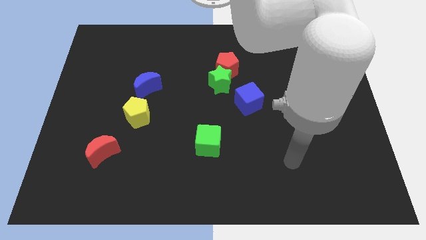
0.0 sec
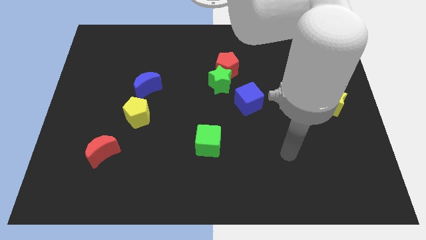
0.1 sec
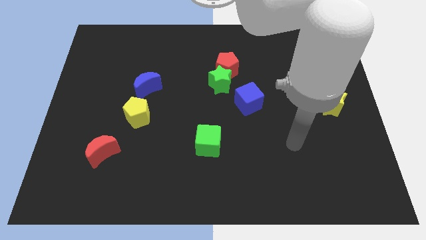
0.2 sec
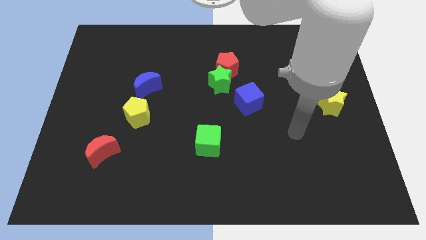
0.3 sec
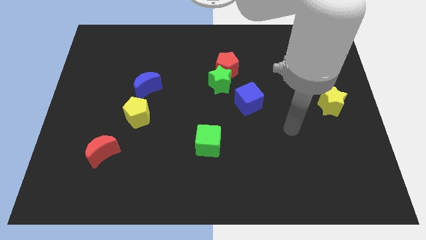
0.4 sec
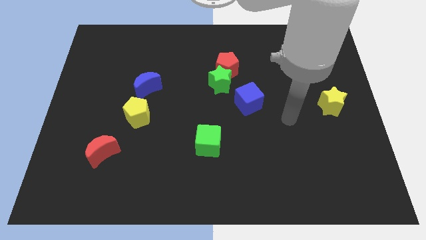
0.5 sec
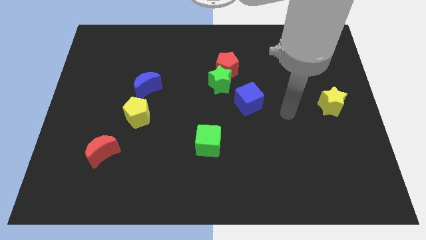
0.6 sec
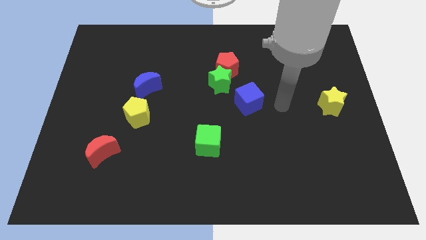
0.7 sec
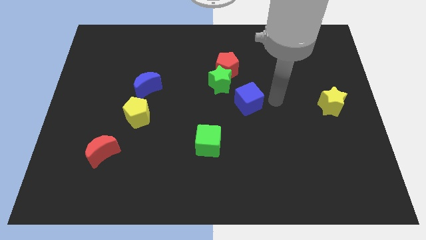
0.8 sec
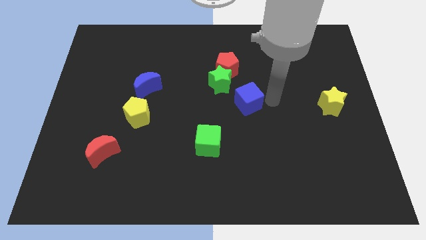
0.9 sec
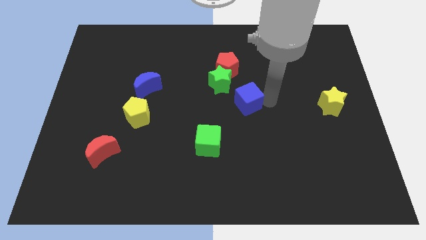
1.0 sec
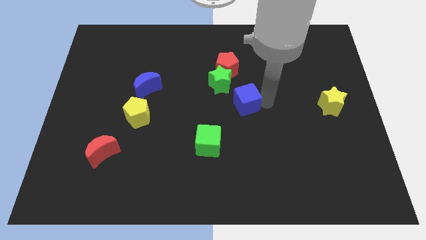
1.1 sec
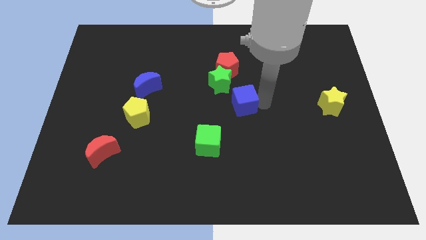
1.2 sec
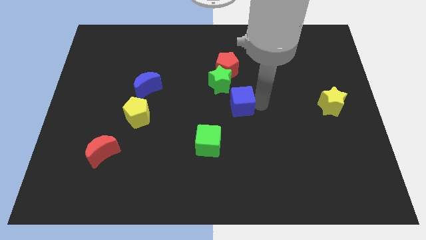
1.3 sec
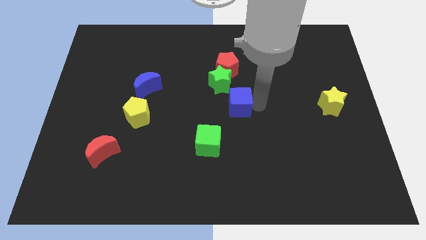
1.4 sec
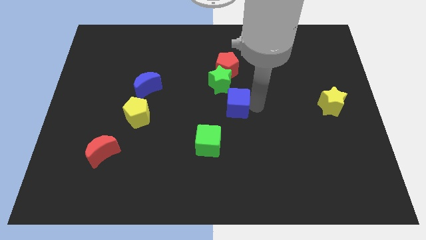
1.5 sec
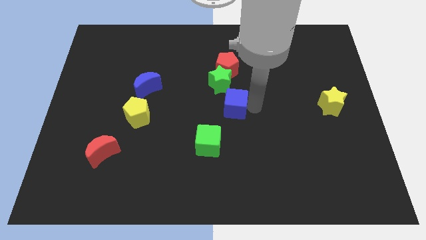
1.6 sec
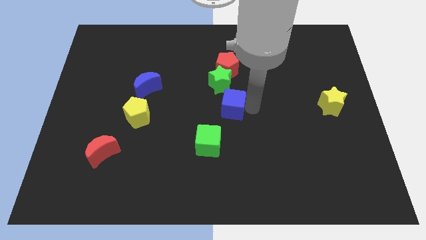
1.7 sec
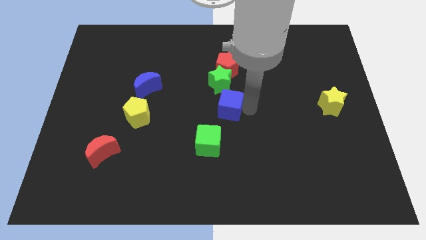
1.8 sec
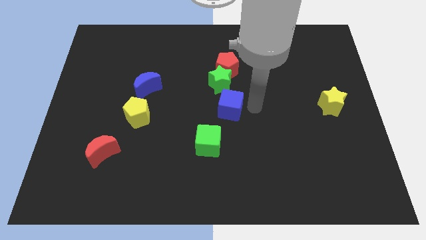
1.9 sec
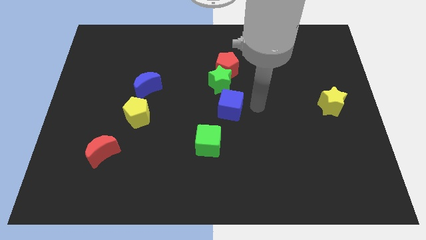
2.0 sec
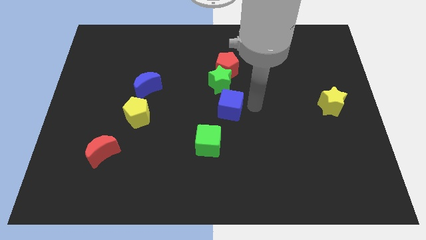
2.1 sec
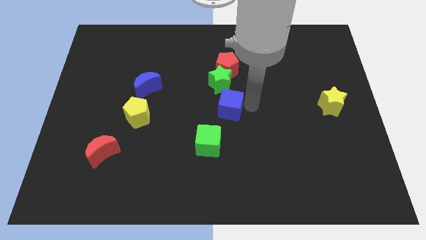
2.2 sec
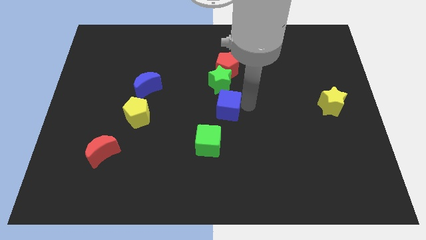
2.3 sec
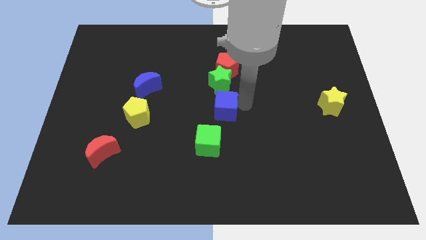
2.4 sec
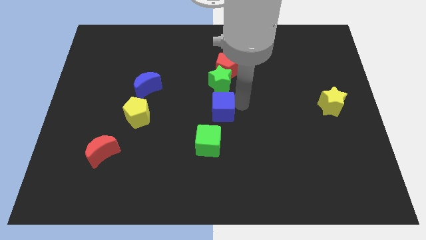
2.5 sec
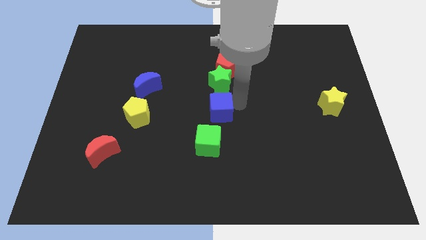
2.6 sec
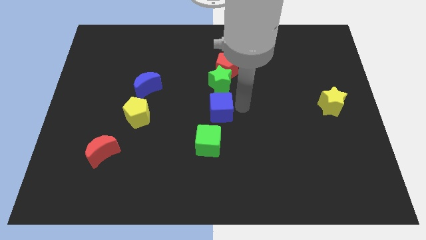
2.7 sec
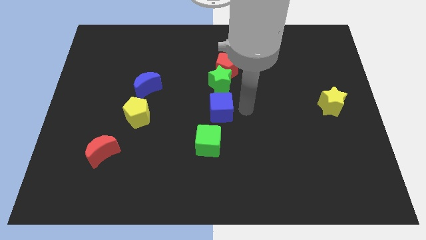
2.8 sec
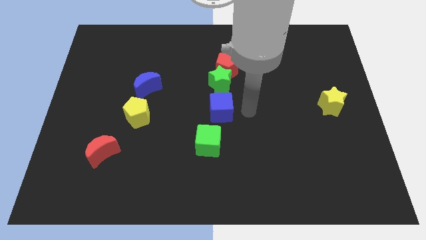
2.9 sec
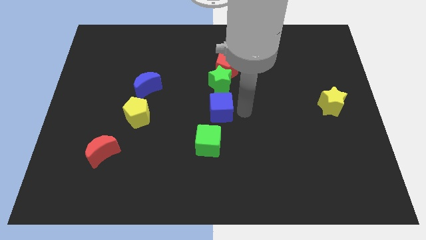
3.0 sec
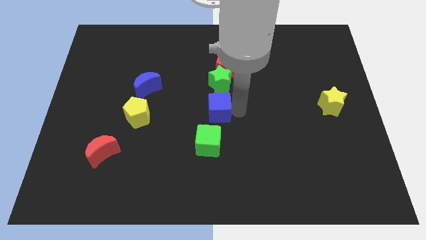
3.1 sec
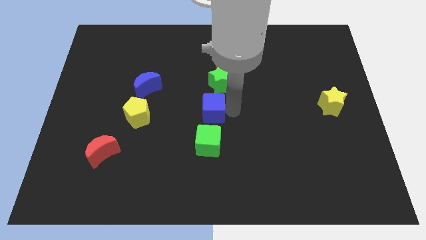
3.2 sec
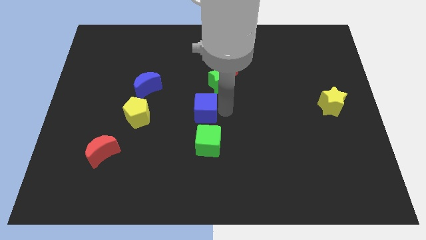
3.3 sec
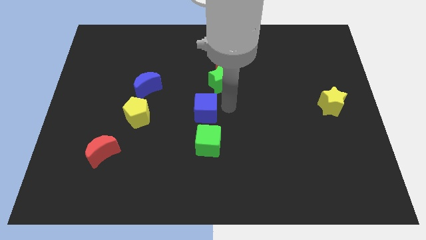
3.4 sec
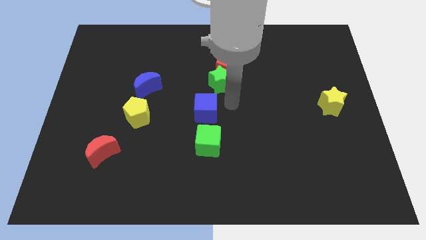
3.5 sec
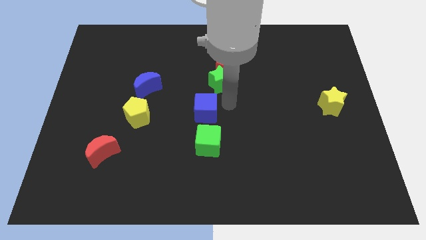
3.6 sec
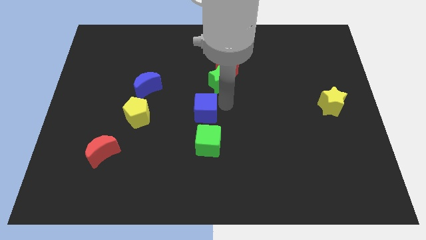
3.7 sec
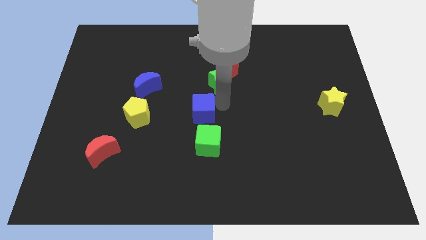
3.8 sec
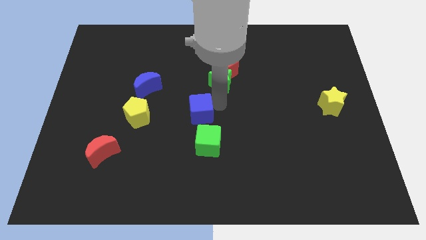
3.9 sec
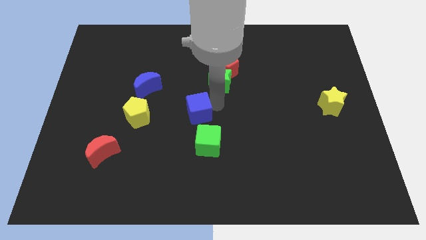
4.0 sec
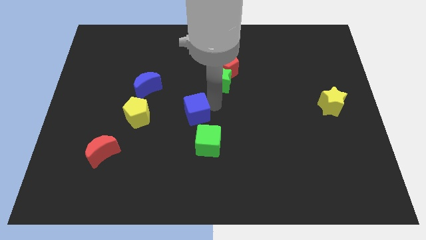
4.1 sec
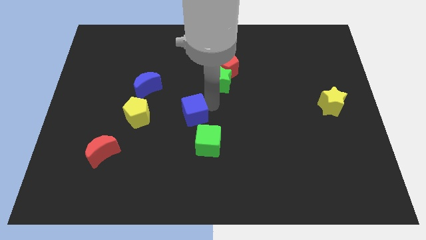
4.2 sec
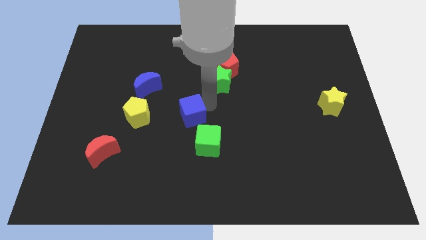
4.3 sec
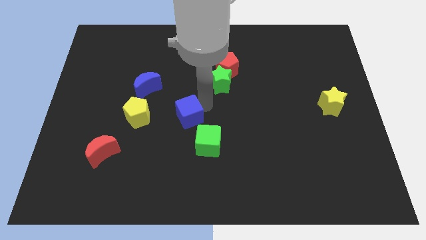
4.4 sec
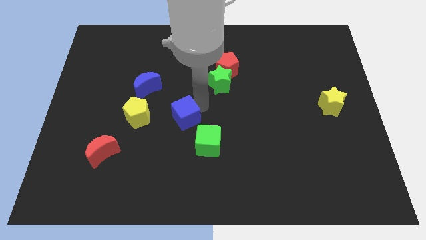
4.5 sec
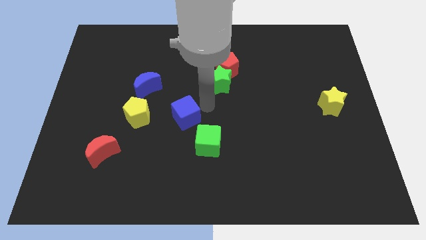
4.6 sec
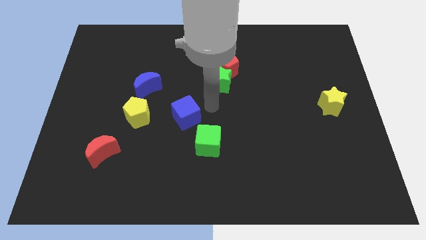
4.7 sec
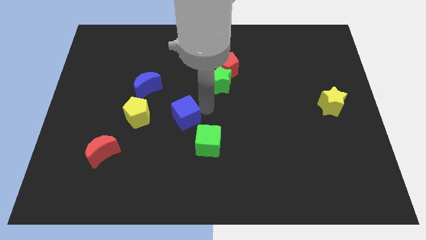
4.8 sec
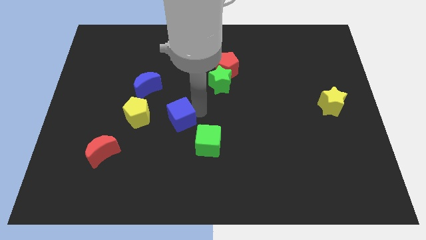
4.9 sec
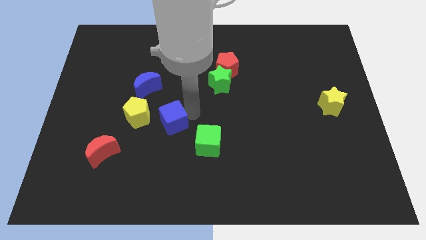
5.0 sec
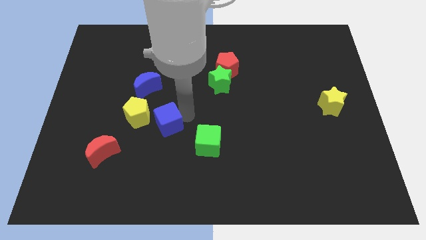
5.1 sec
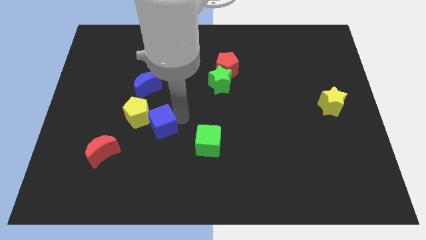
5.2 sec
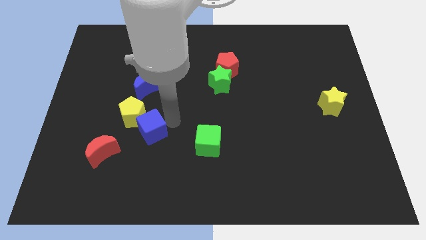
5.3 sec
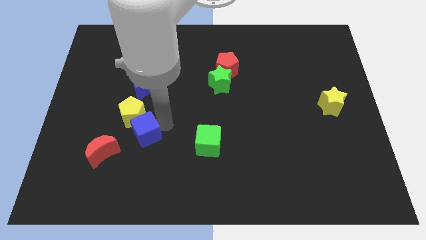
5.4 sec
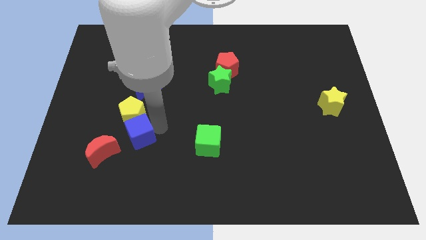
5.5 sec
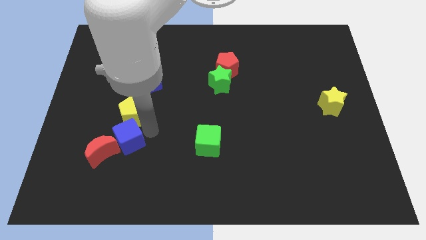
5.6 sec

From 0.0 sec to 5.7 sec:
slide the blue cube next to the red moon
